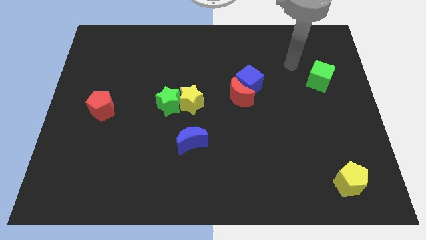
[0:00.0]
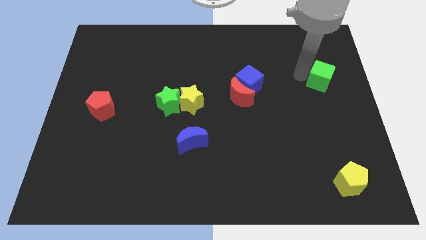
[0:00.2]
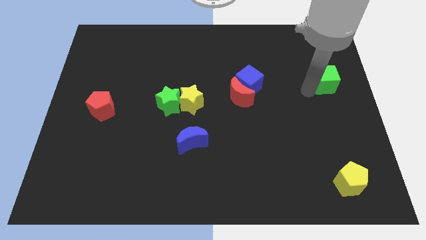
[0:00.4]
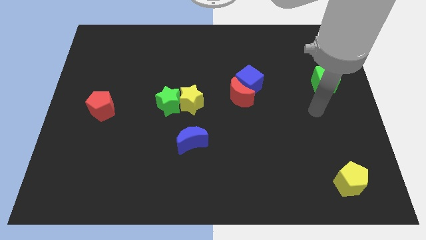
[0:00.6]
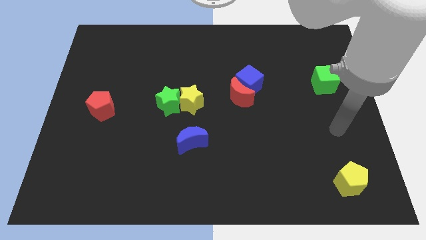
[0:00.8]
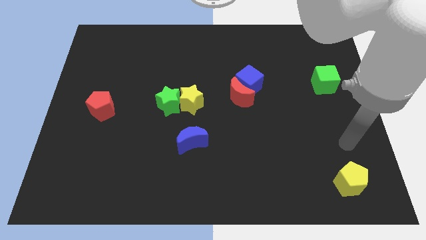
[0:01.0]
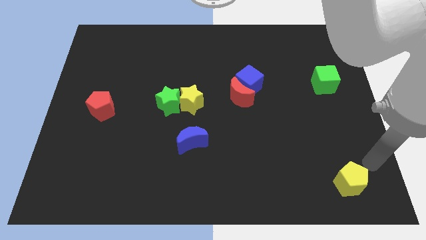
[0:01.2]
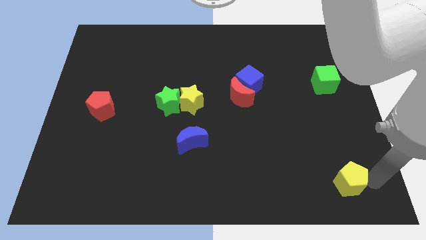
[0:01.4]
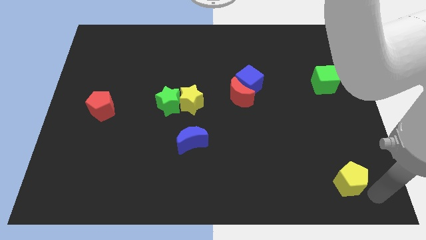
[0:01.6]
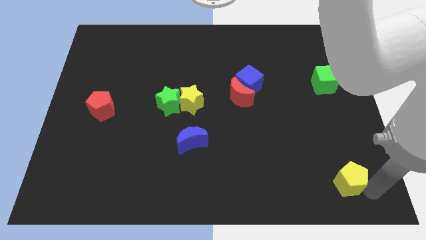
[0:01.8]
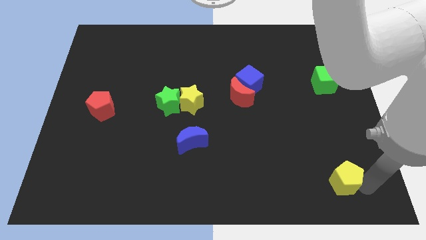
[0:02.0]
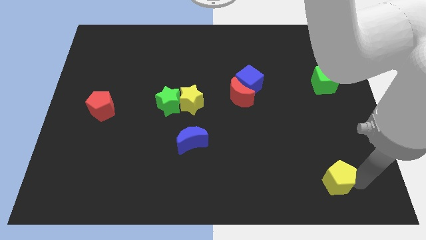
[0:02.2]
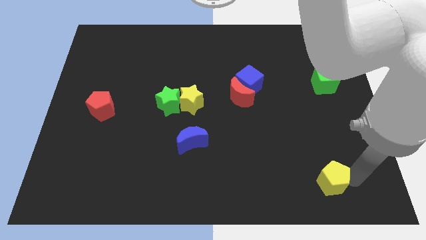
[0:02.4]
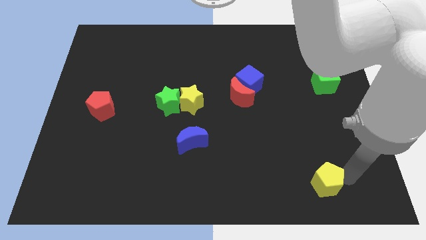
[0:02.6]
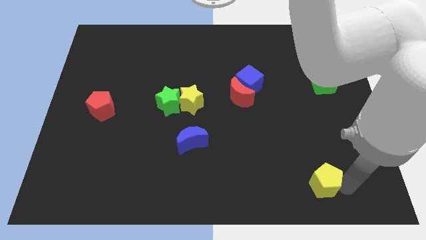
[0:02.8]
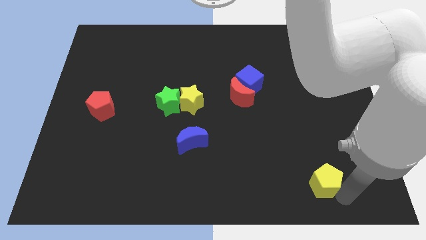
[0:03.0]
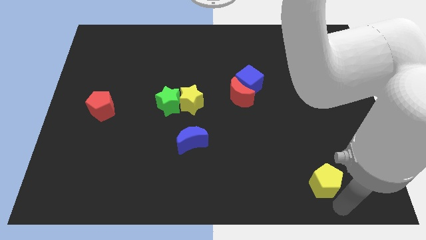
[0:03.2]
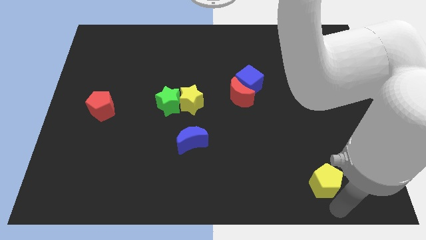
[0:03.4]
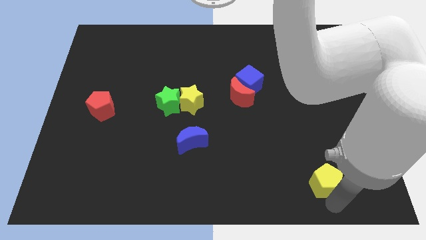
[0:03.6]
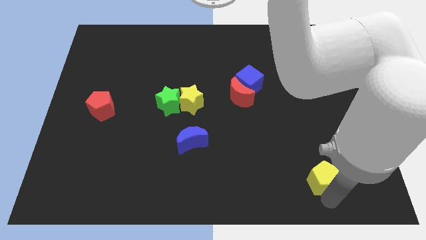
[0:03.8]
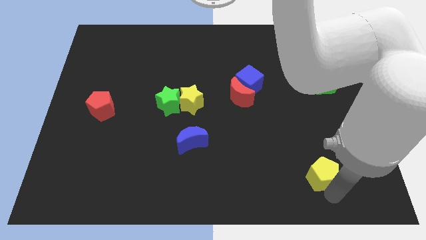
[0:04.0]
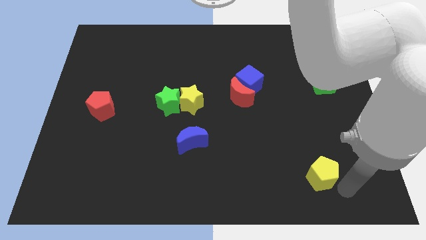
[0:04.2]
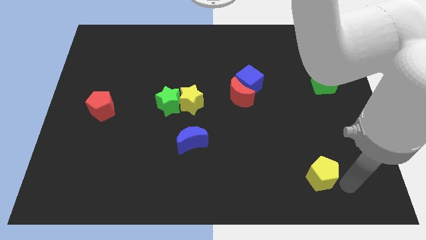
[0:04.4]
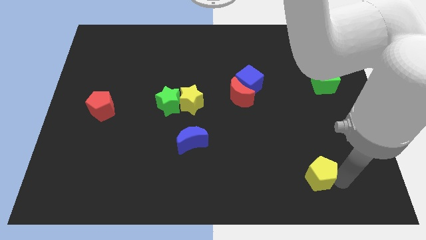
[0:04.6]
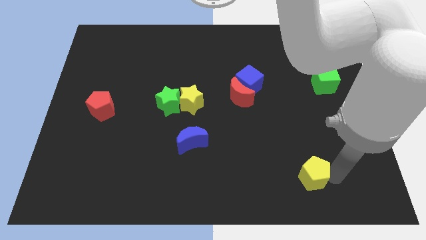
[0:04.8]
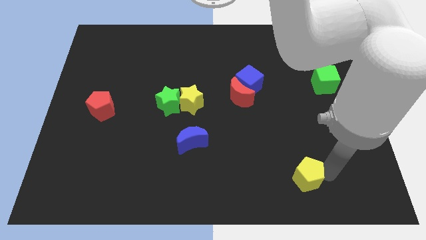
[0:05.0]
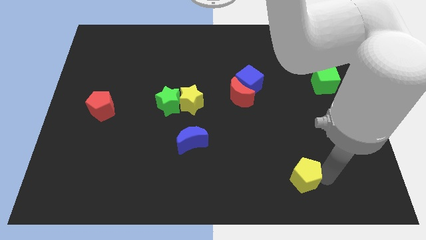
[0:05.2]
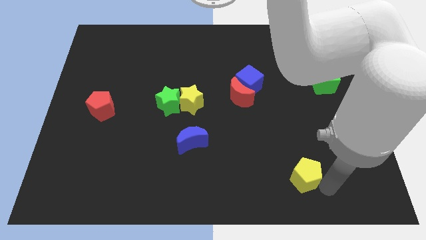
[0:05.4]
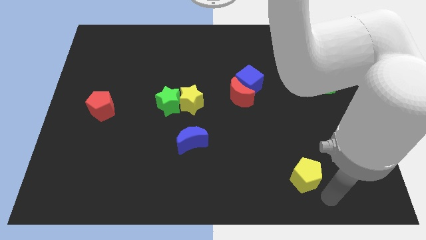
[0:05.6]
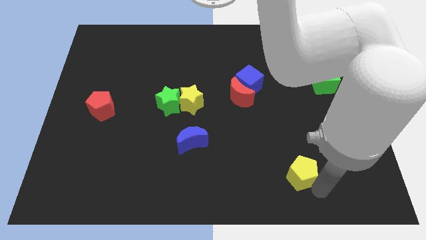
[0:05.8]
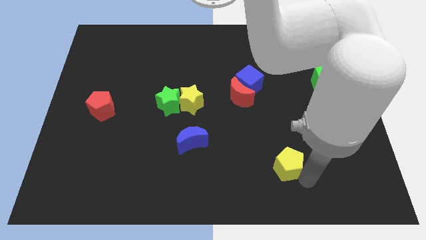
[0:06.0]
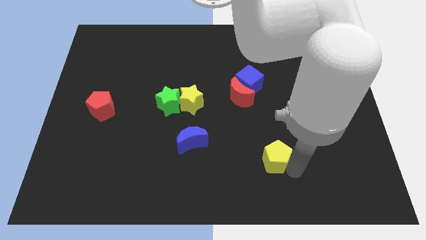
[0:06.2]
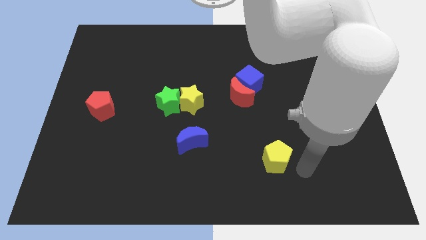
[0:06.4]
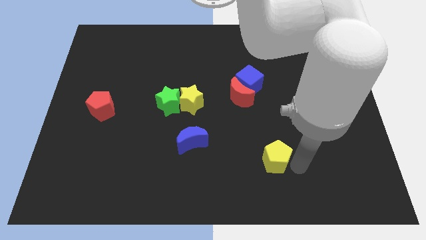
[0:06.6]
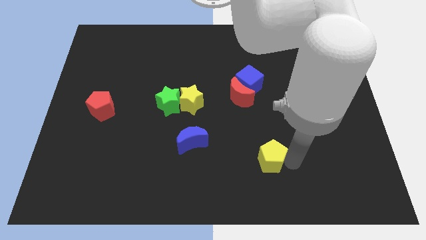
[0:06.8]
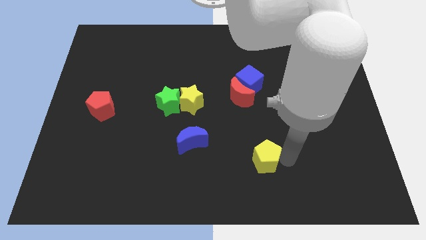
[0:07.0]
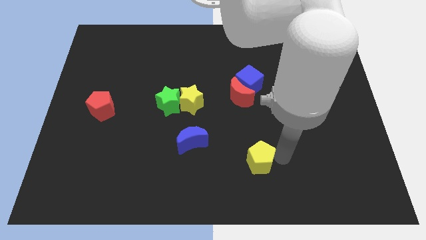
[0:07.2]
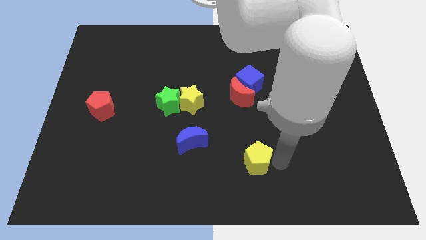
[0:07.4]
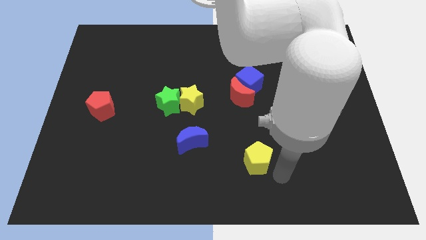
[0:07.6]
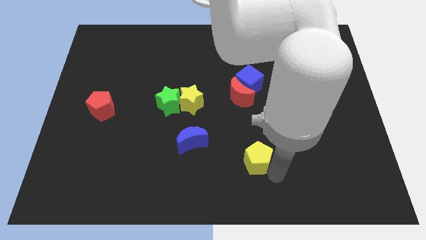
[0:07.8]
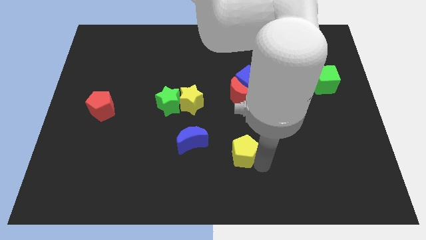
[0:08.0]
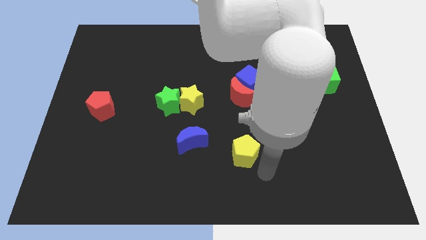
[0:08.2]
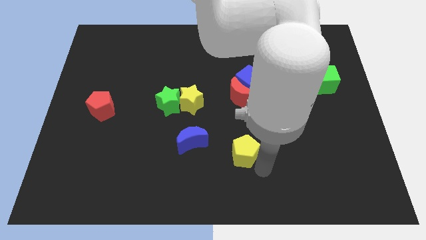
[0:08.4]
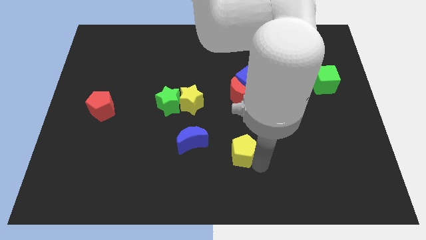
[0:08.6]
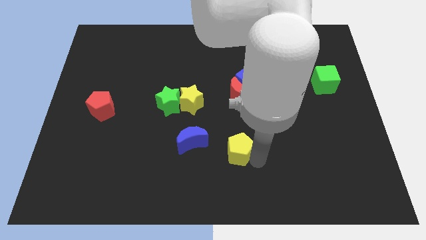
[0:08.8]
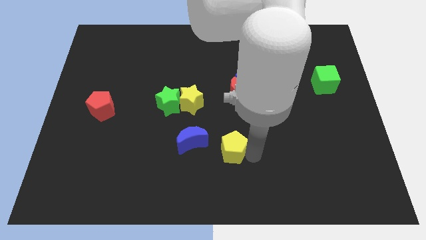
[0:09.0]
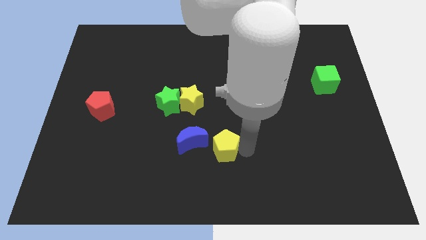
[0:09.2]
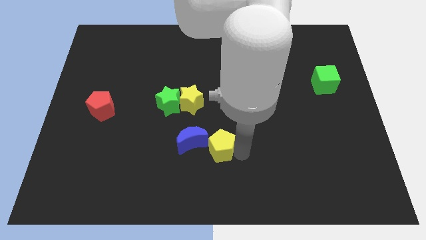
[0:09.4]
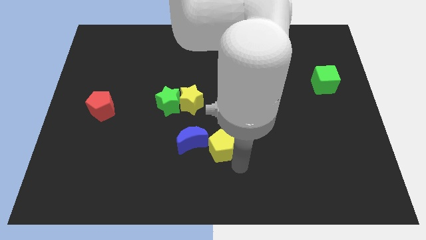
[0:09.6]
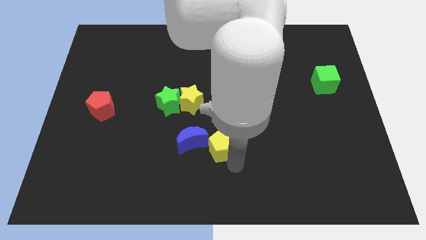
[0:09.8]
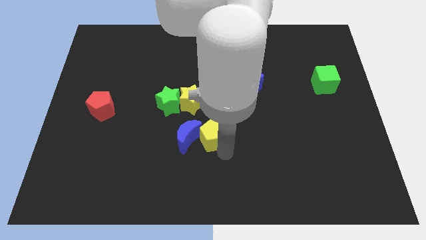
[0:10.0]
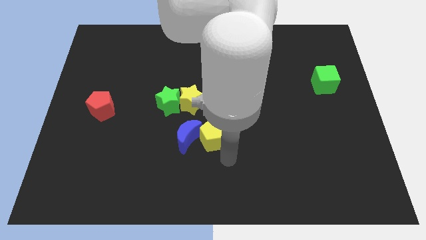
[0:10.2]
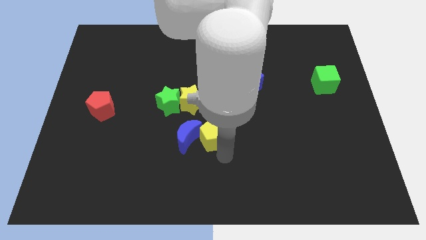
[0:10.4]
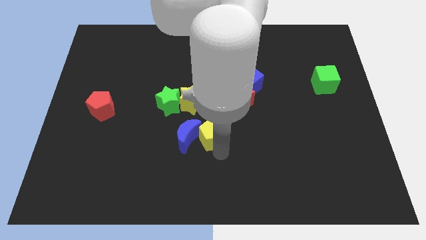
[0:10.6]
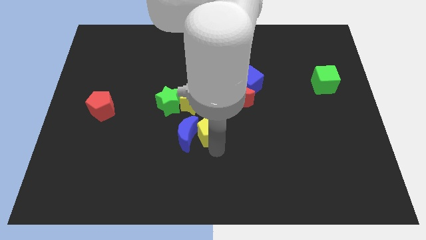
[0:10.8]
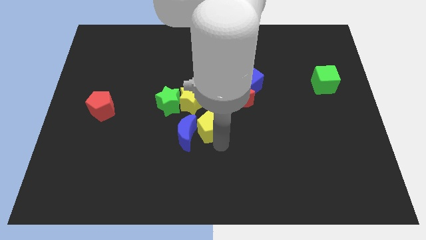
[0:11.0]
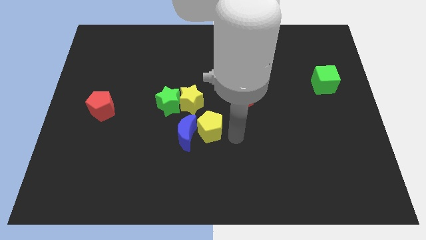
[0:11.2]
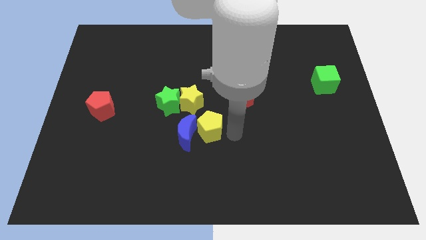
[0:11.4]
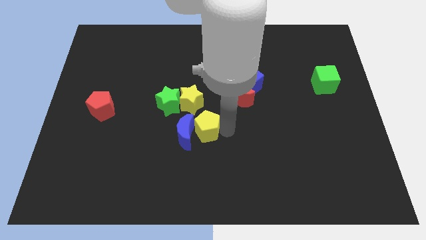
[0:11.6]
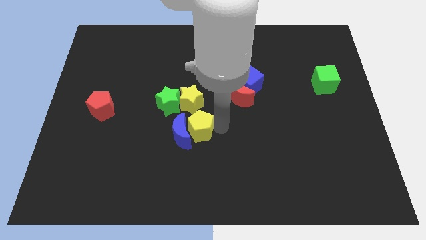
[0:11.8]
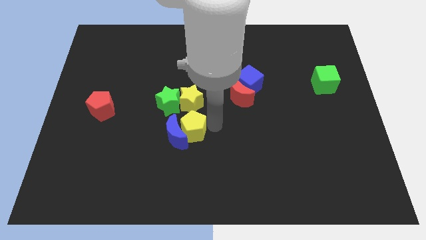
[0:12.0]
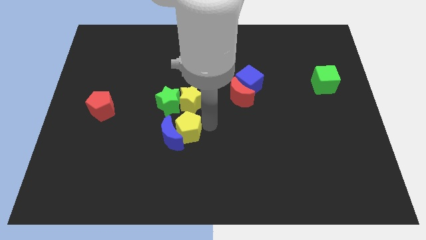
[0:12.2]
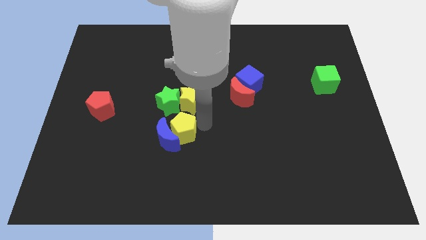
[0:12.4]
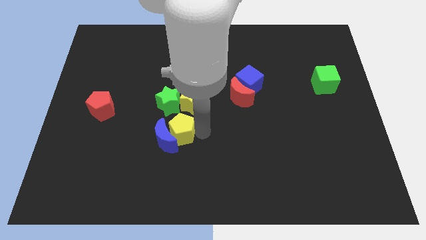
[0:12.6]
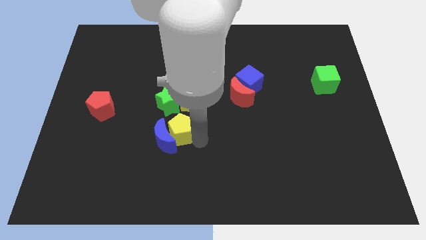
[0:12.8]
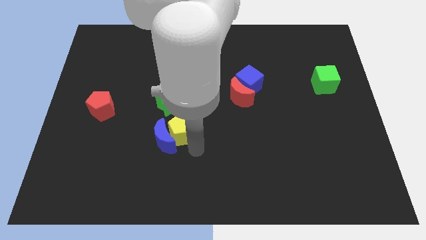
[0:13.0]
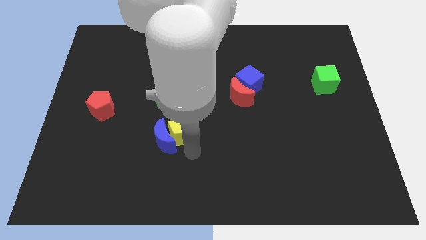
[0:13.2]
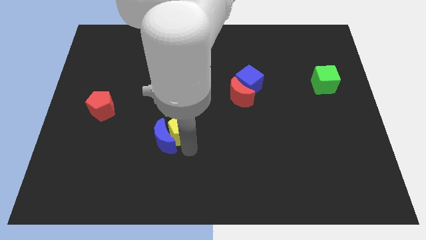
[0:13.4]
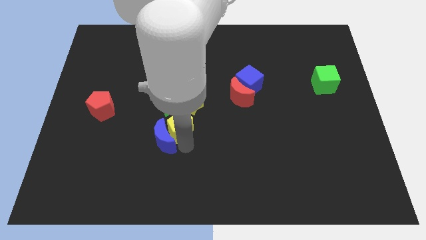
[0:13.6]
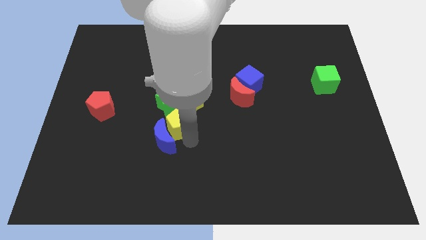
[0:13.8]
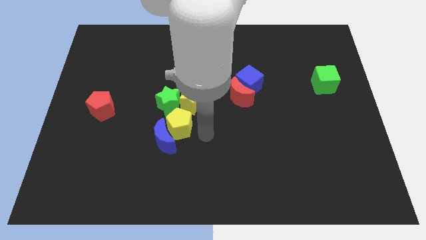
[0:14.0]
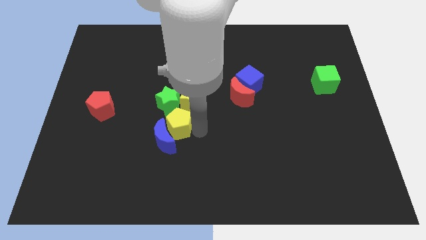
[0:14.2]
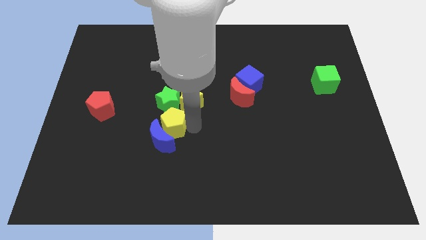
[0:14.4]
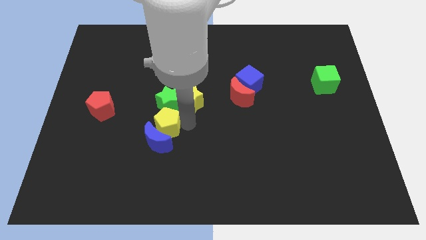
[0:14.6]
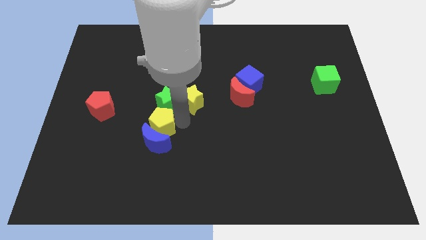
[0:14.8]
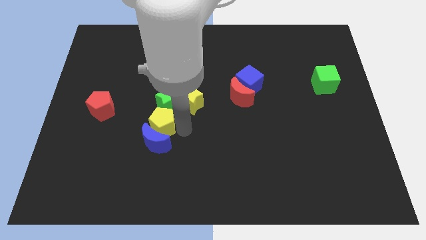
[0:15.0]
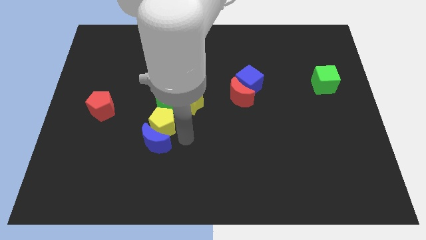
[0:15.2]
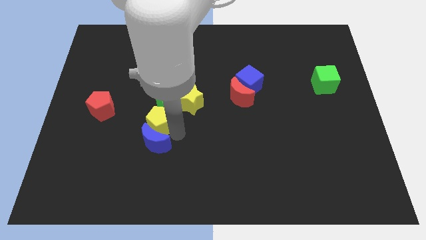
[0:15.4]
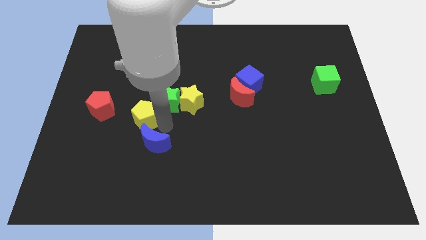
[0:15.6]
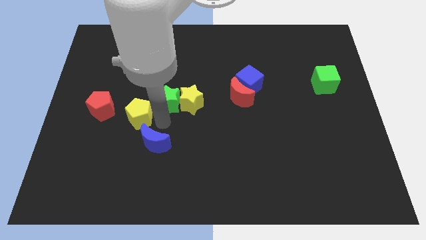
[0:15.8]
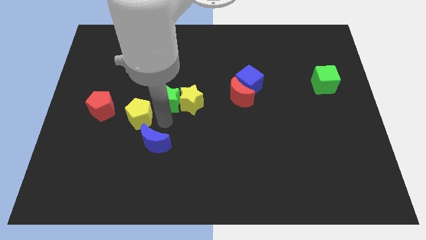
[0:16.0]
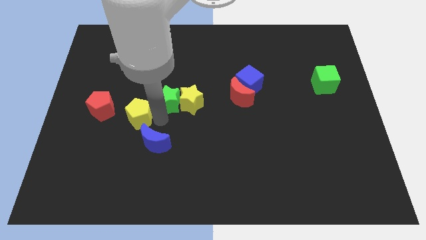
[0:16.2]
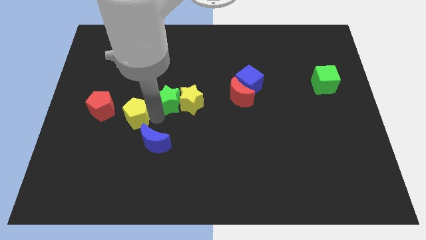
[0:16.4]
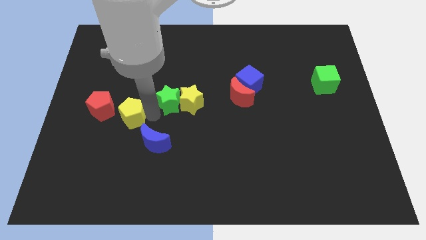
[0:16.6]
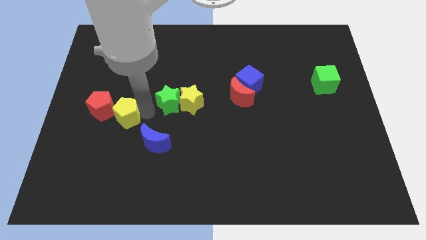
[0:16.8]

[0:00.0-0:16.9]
move the yellow pentagon towards the red pentagon
